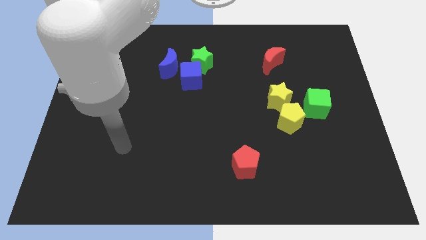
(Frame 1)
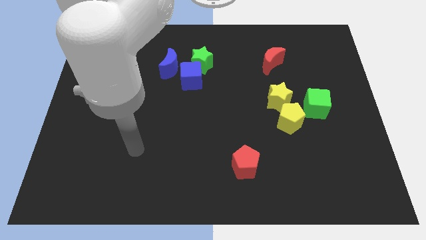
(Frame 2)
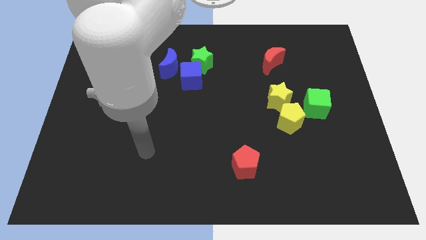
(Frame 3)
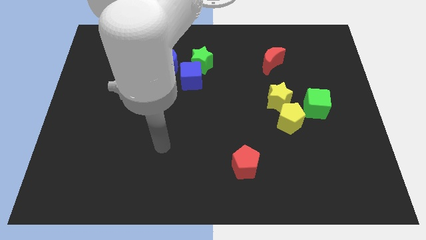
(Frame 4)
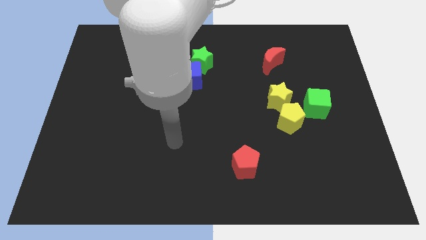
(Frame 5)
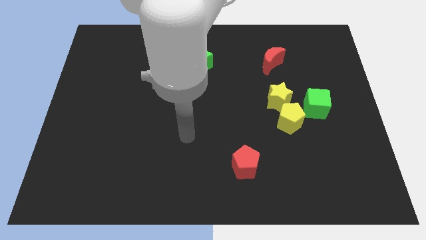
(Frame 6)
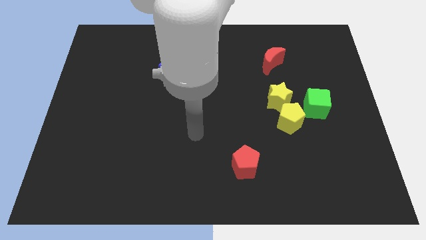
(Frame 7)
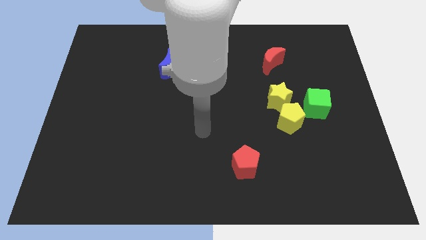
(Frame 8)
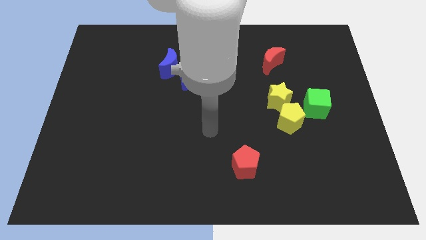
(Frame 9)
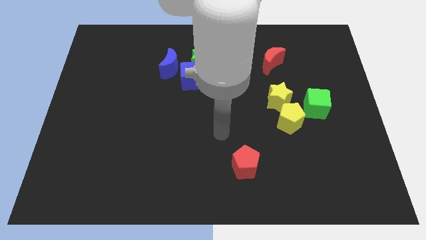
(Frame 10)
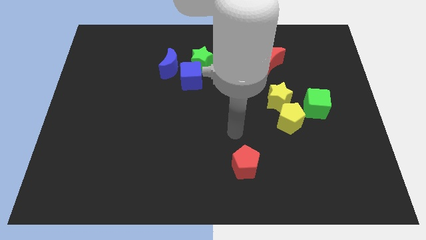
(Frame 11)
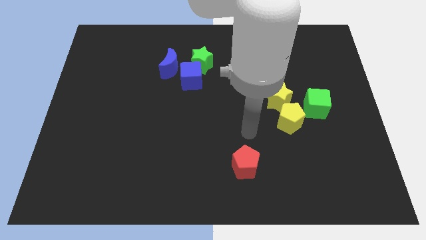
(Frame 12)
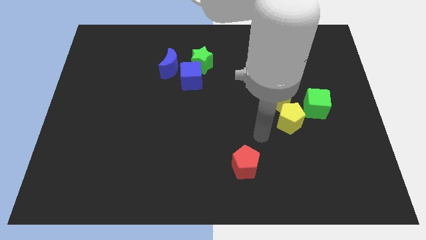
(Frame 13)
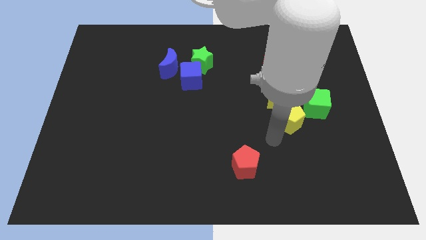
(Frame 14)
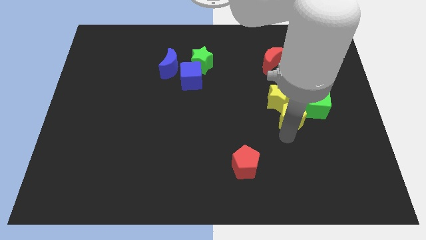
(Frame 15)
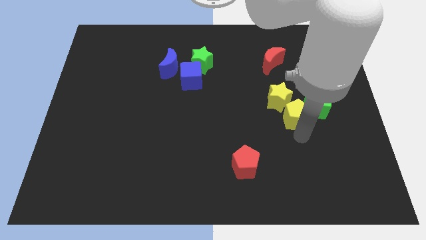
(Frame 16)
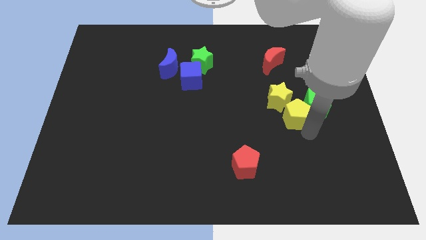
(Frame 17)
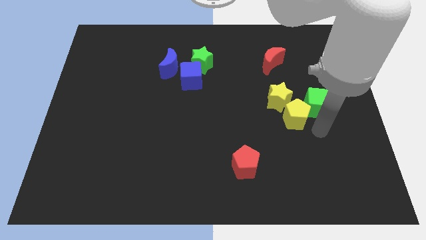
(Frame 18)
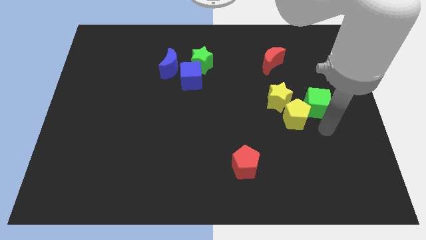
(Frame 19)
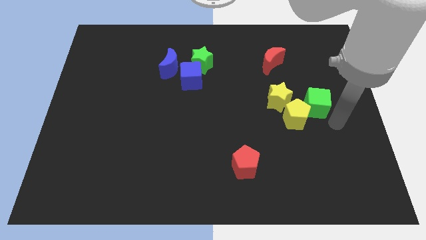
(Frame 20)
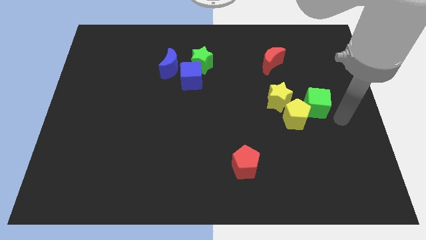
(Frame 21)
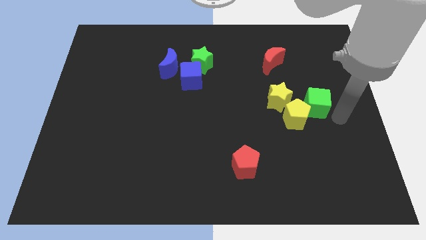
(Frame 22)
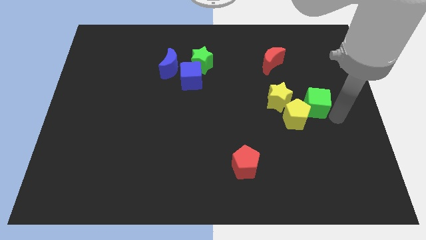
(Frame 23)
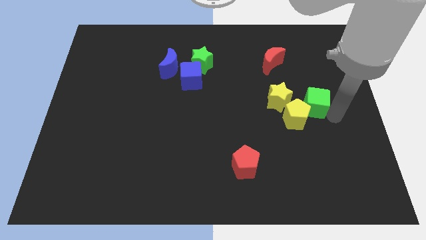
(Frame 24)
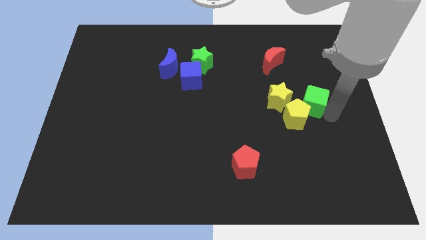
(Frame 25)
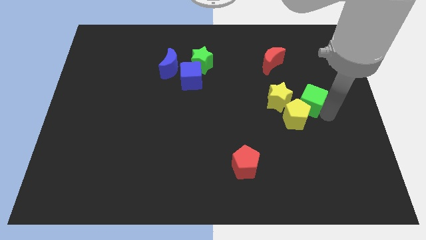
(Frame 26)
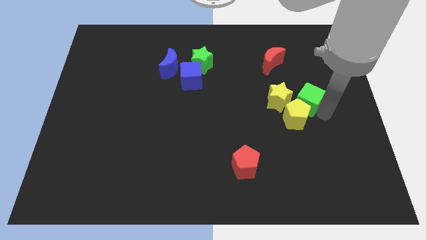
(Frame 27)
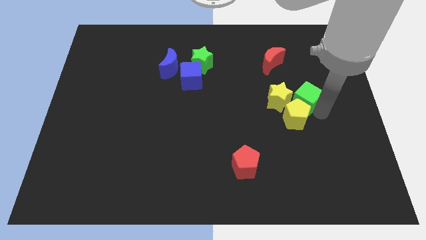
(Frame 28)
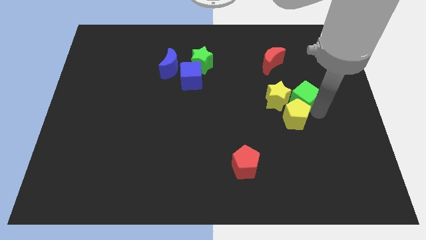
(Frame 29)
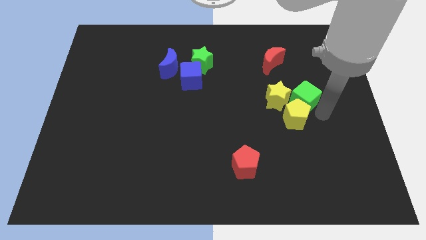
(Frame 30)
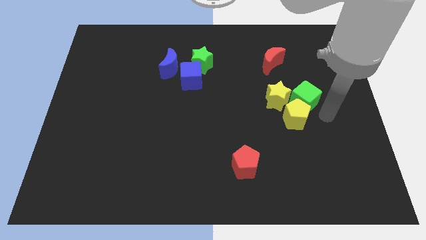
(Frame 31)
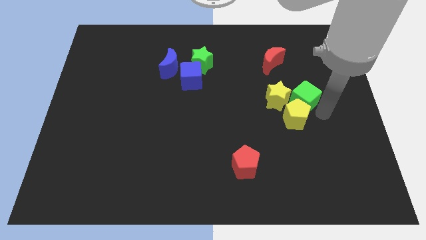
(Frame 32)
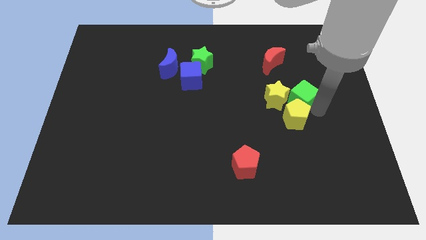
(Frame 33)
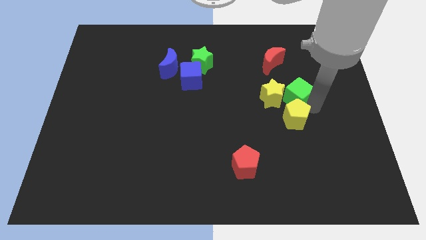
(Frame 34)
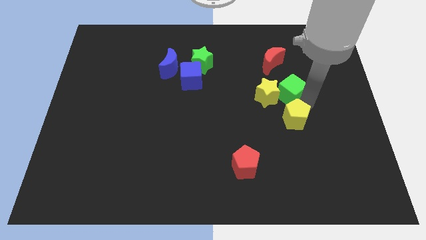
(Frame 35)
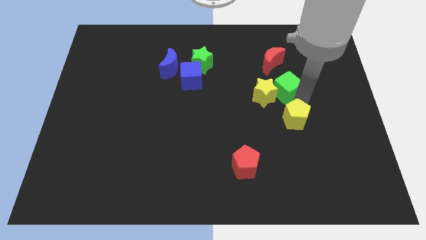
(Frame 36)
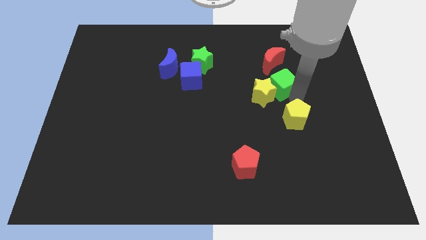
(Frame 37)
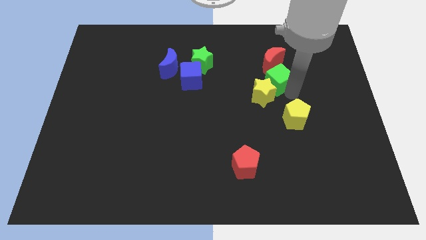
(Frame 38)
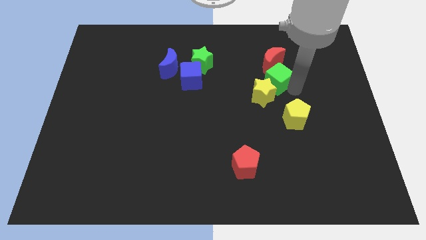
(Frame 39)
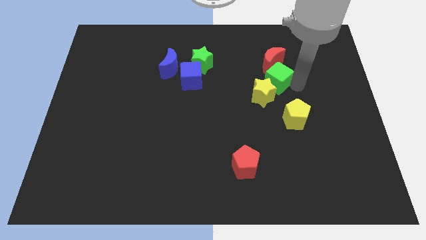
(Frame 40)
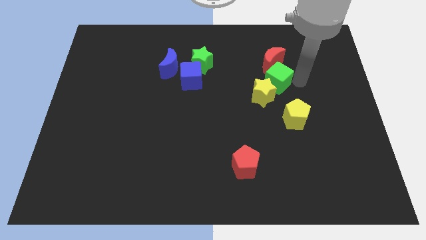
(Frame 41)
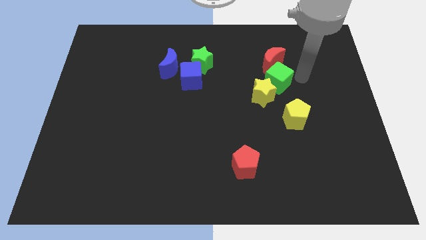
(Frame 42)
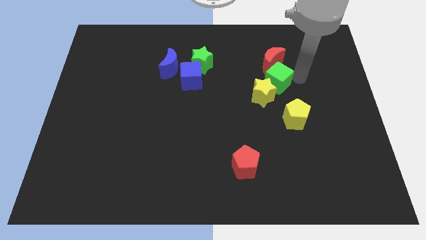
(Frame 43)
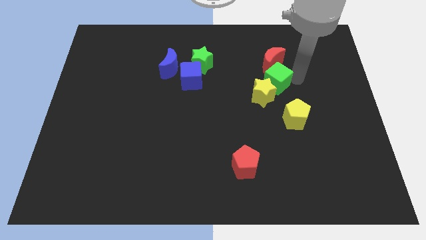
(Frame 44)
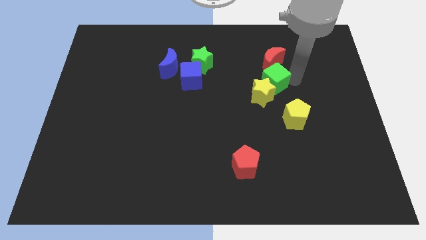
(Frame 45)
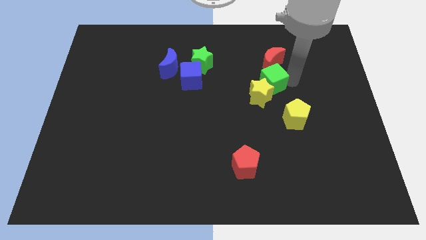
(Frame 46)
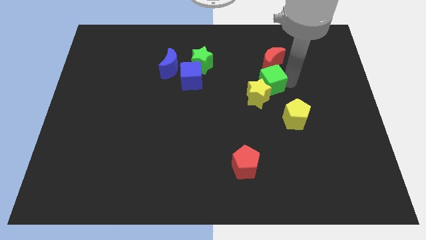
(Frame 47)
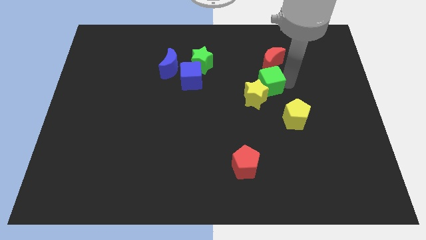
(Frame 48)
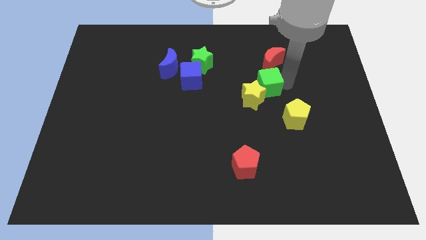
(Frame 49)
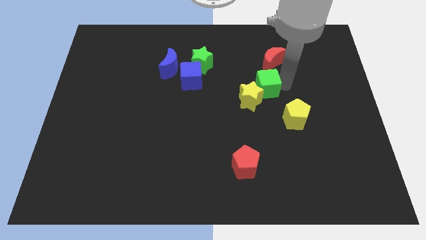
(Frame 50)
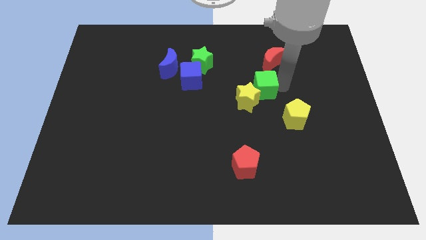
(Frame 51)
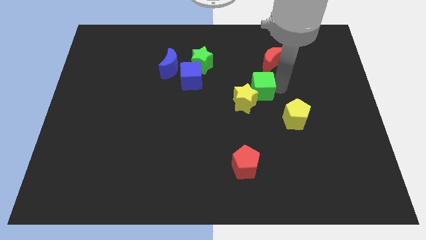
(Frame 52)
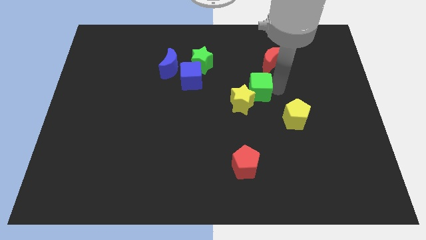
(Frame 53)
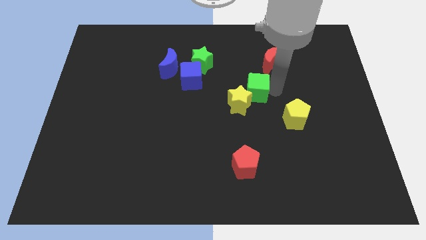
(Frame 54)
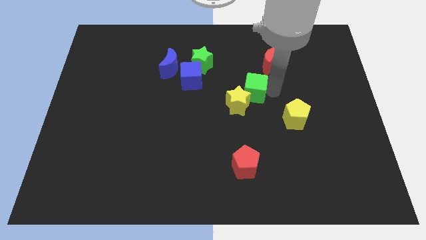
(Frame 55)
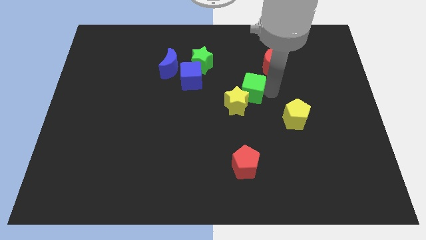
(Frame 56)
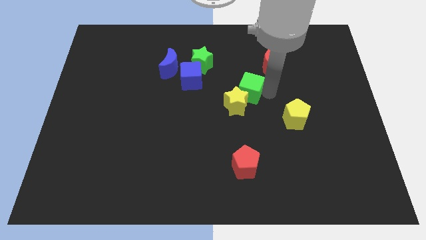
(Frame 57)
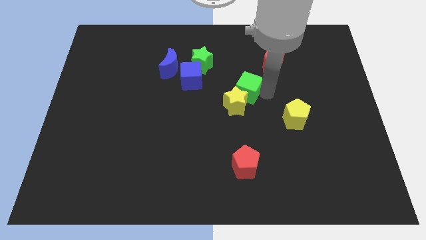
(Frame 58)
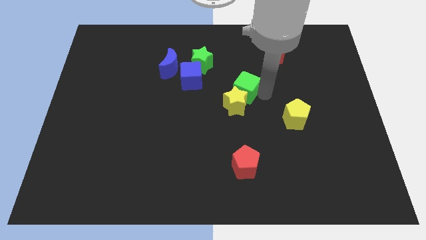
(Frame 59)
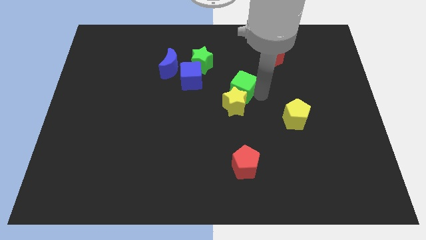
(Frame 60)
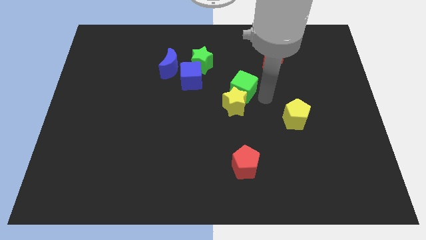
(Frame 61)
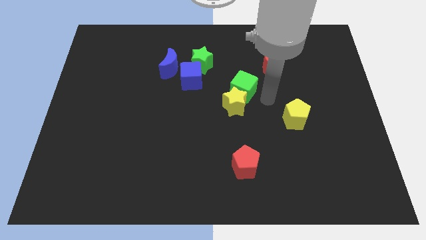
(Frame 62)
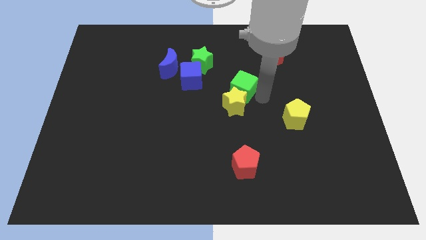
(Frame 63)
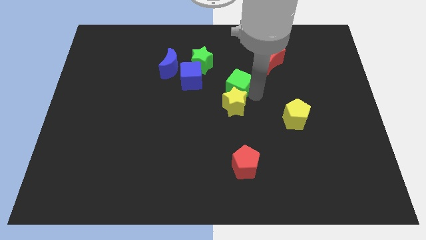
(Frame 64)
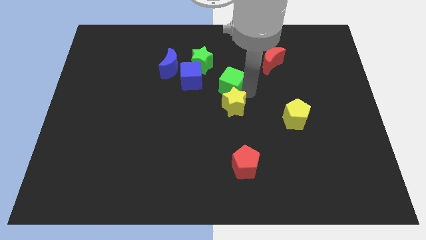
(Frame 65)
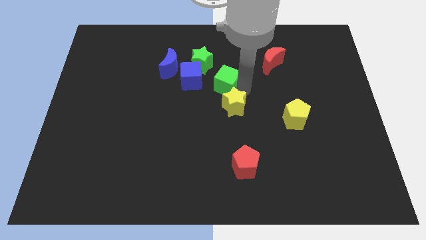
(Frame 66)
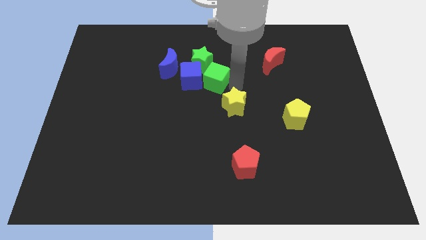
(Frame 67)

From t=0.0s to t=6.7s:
slide the green cube towards the blue cube

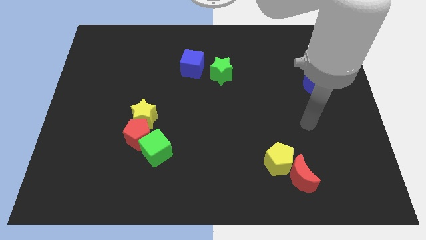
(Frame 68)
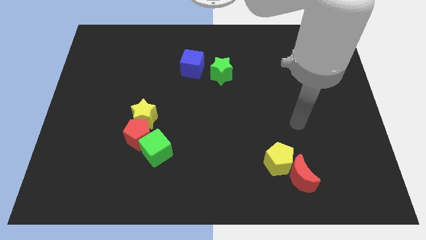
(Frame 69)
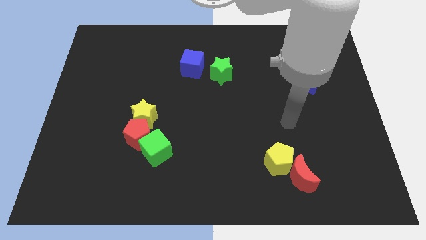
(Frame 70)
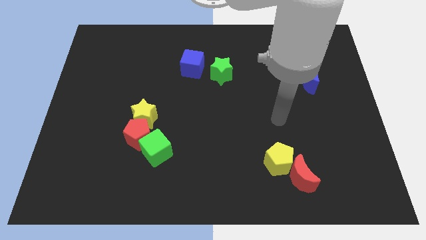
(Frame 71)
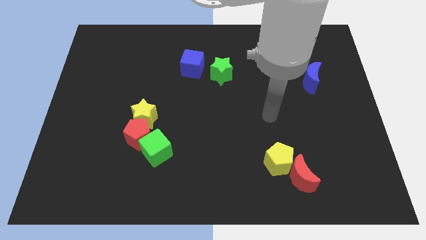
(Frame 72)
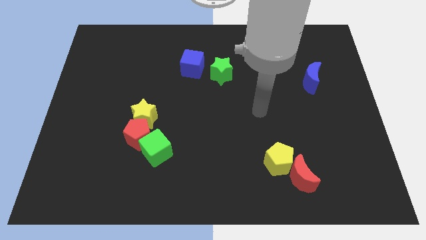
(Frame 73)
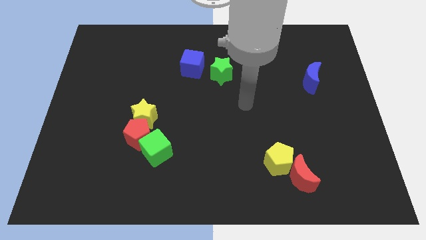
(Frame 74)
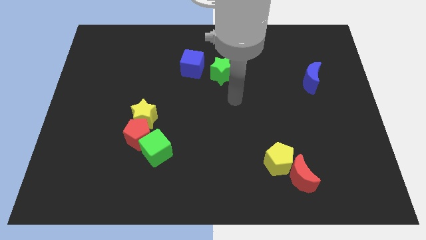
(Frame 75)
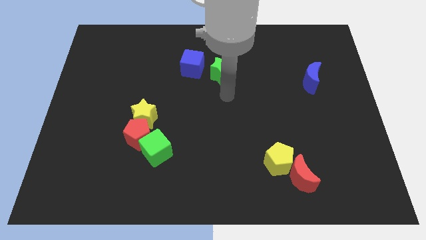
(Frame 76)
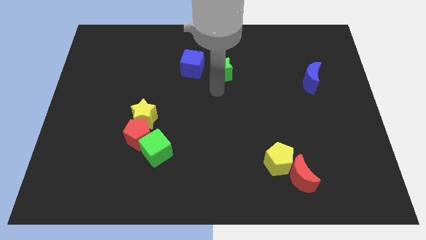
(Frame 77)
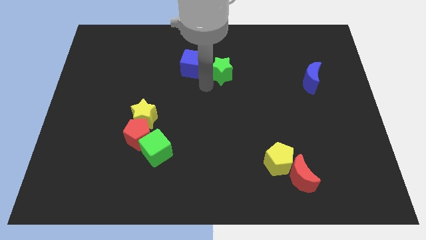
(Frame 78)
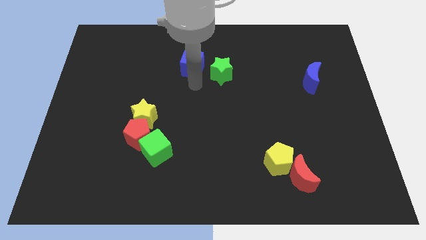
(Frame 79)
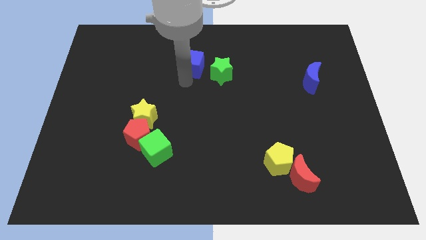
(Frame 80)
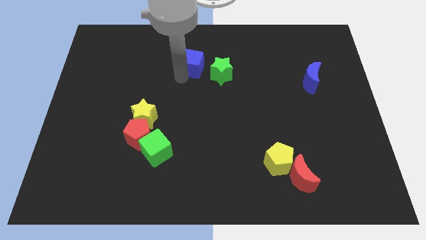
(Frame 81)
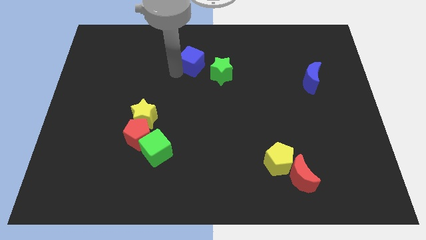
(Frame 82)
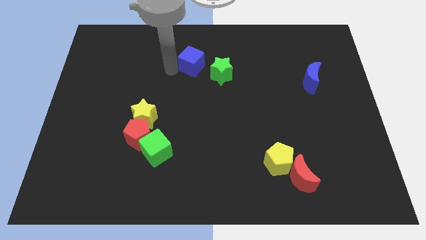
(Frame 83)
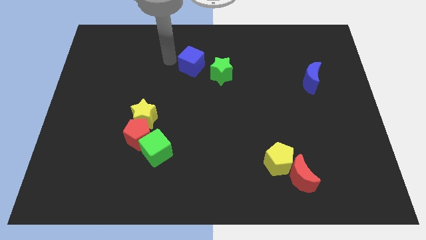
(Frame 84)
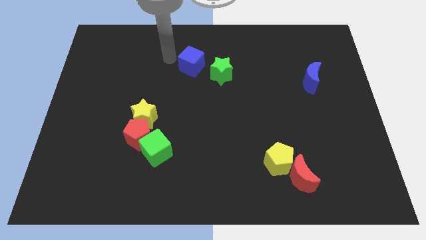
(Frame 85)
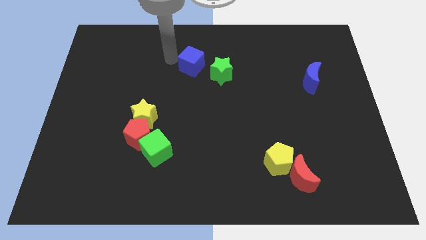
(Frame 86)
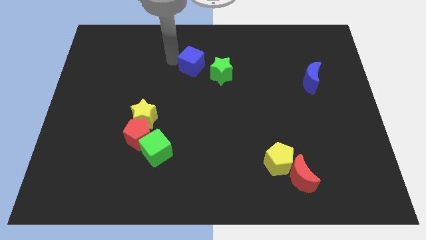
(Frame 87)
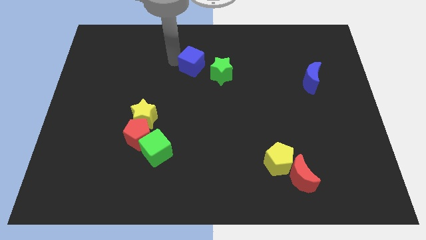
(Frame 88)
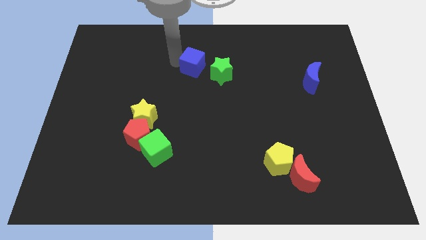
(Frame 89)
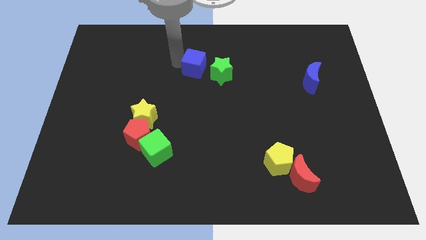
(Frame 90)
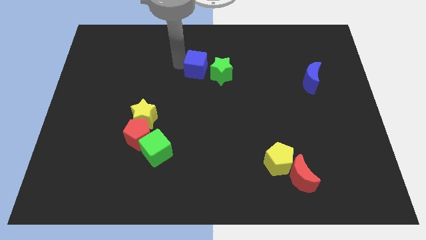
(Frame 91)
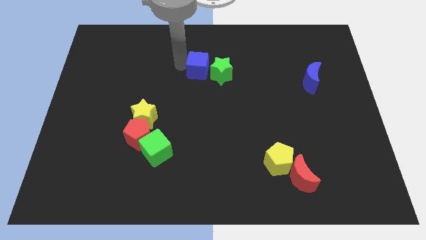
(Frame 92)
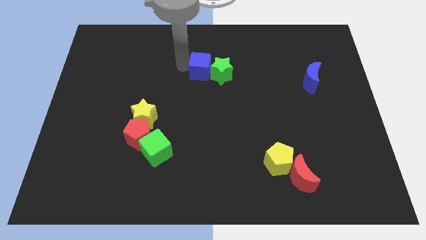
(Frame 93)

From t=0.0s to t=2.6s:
push the blue cube next to the green star
